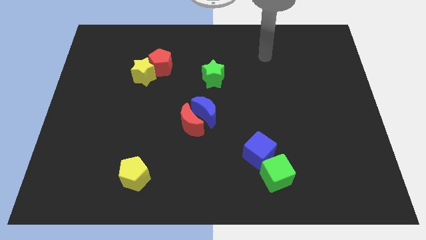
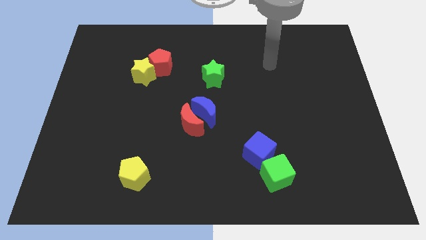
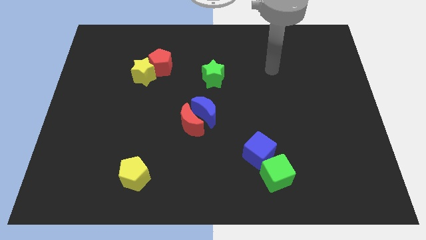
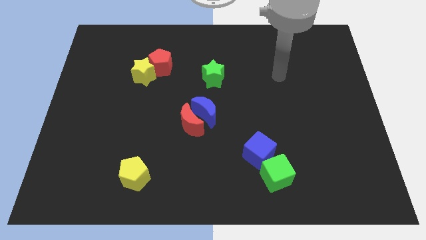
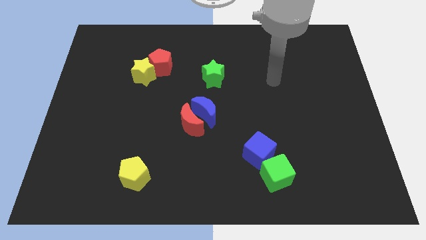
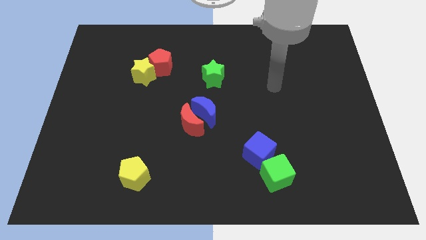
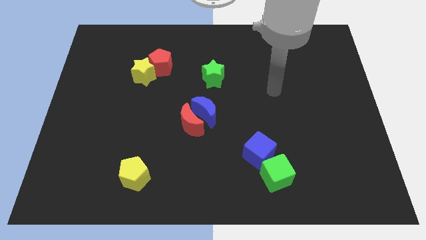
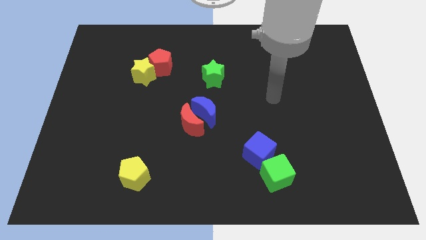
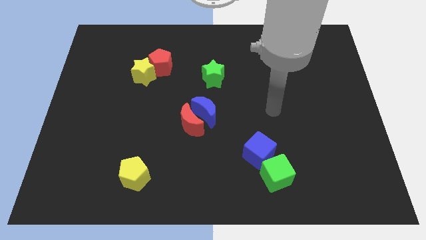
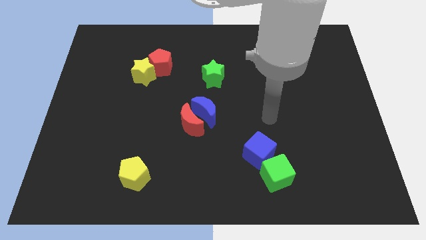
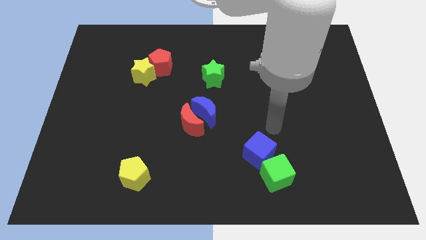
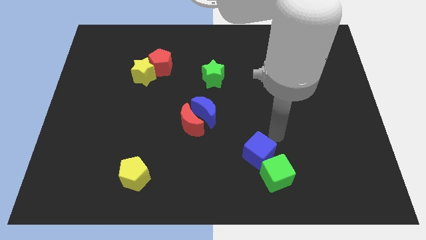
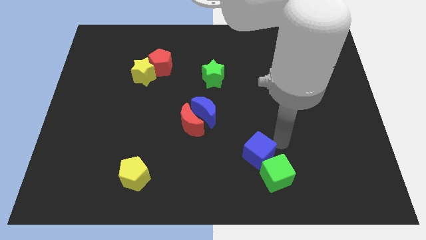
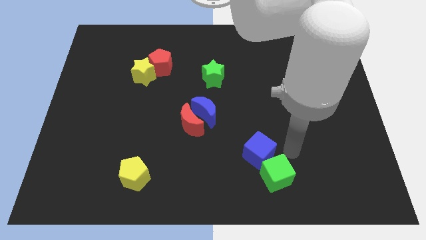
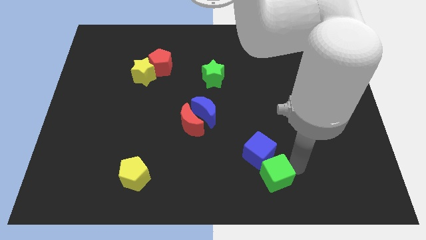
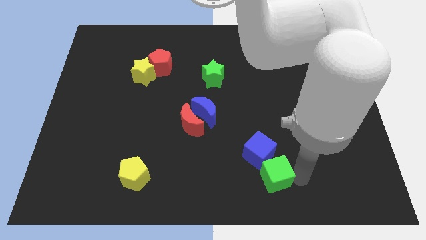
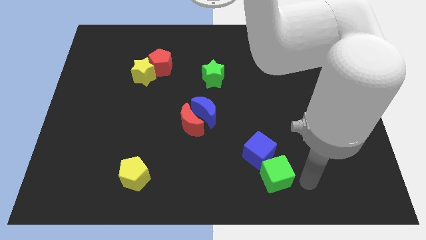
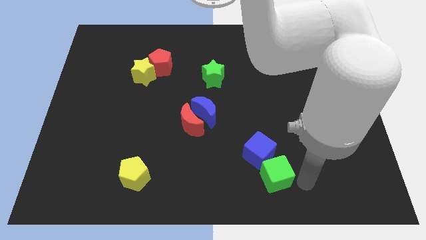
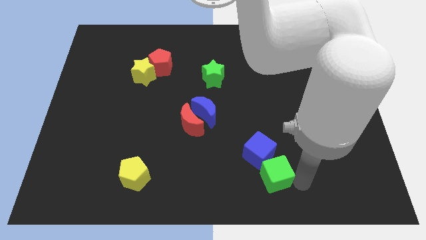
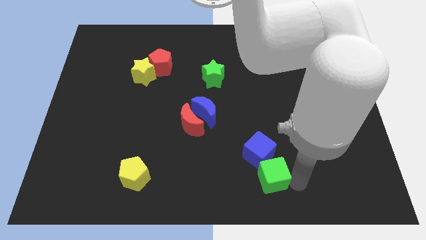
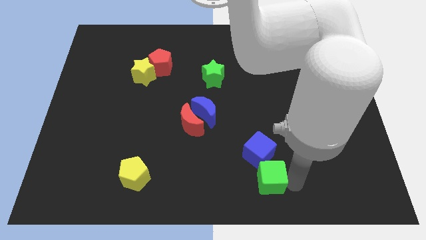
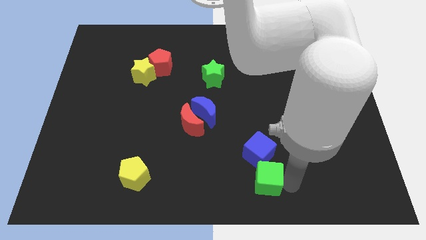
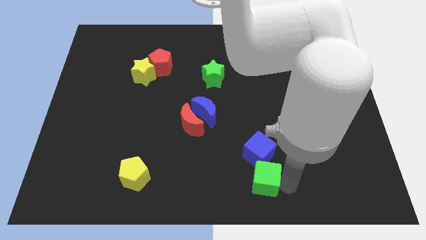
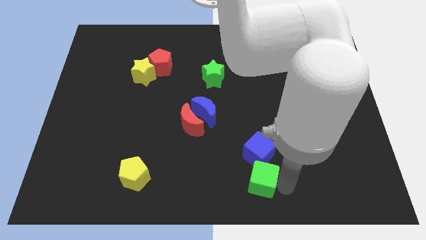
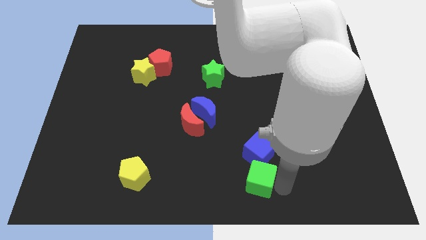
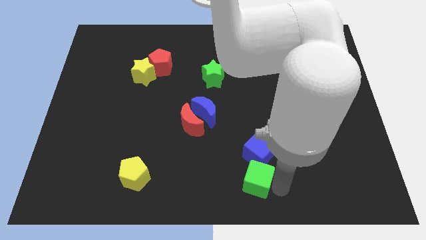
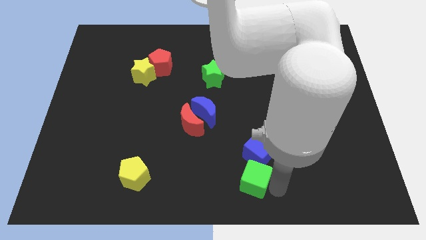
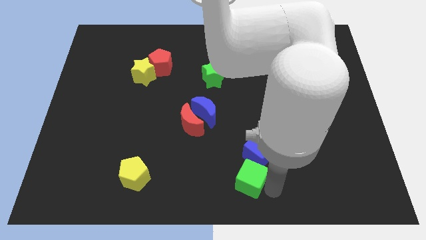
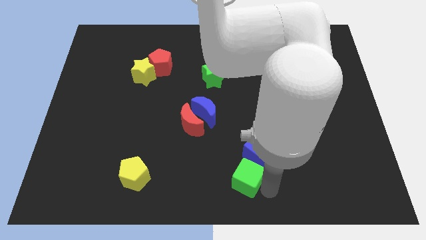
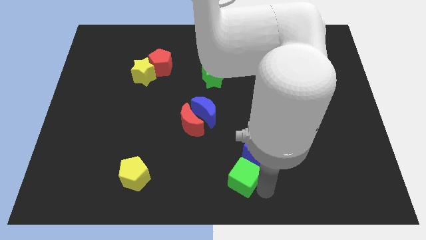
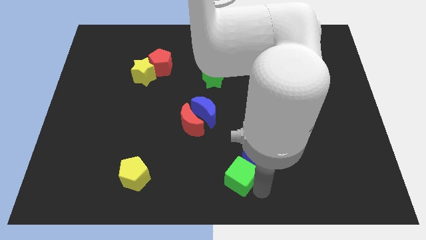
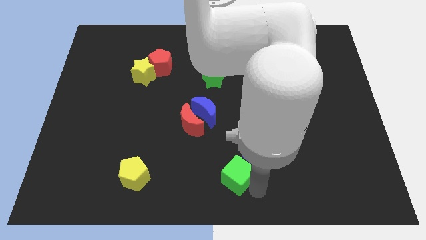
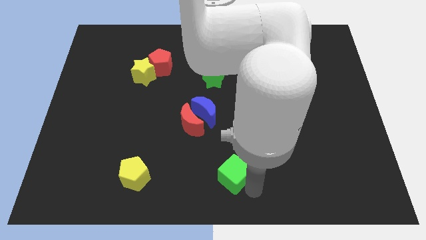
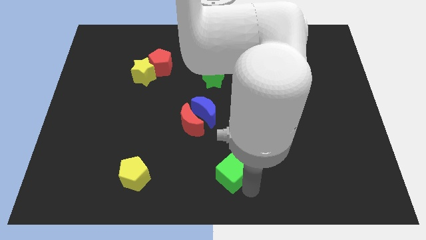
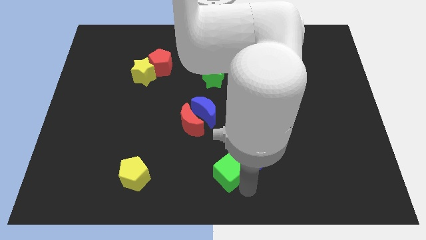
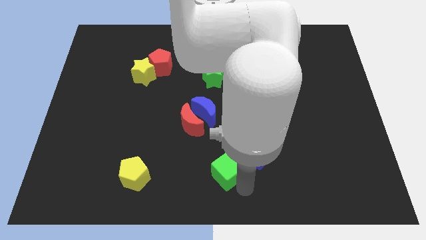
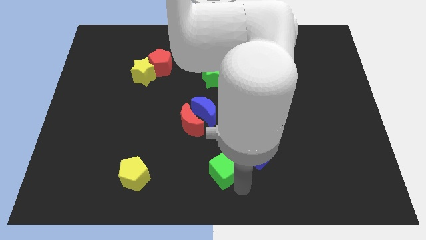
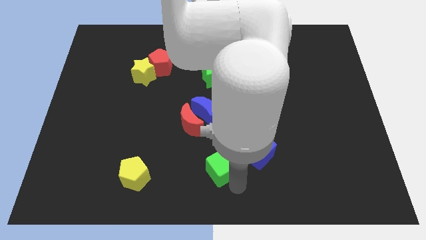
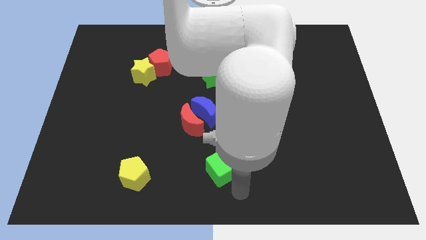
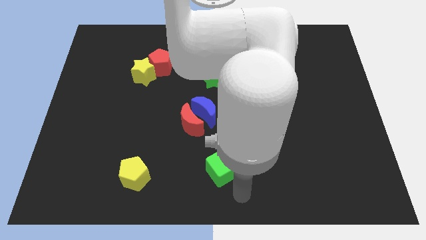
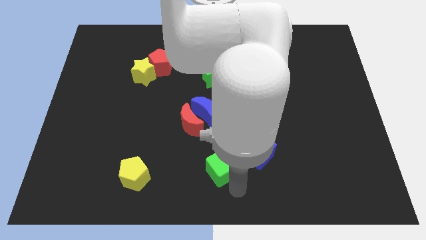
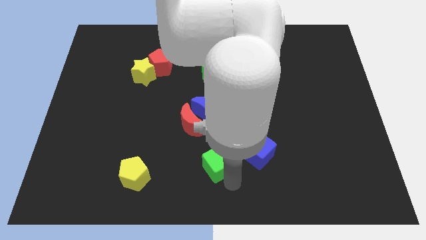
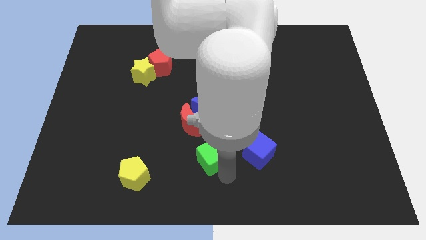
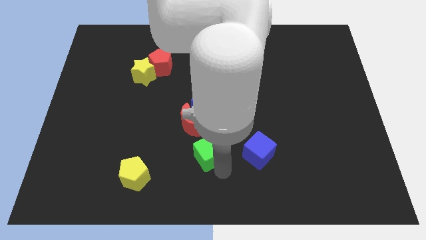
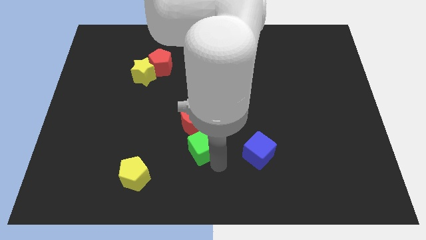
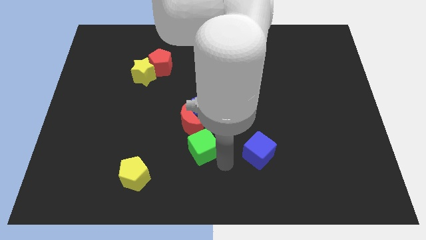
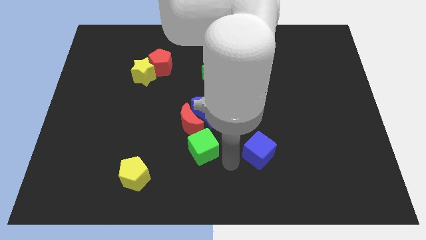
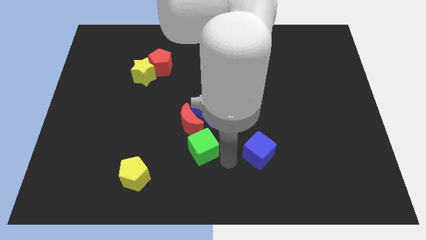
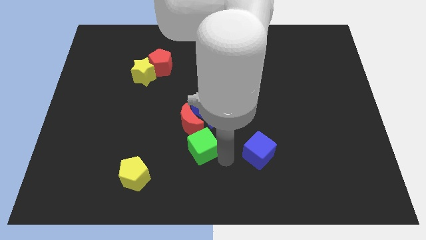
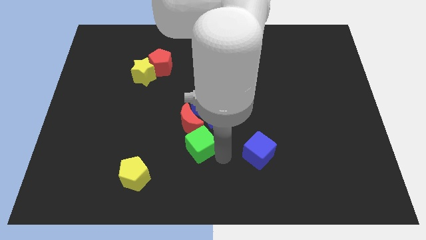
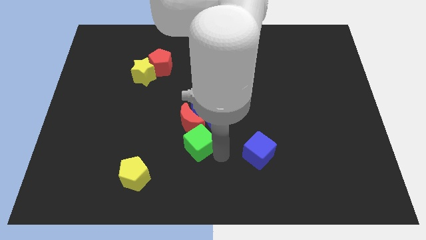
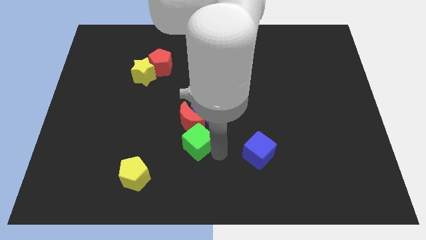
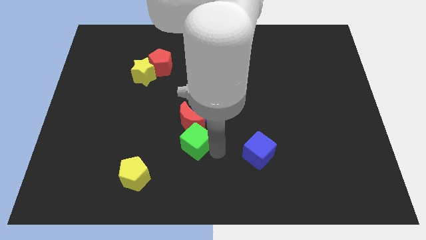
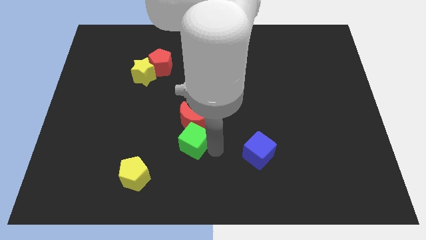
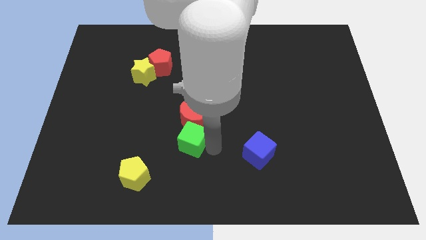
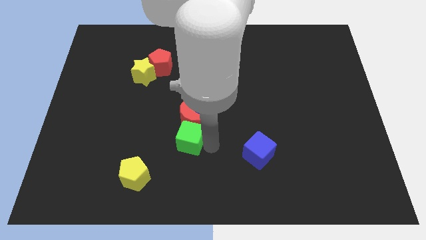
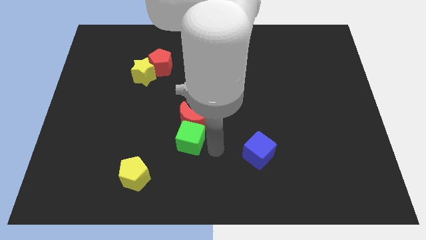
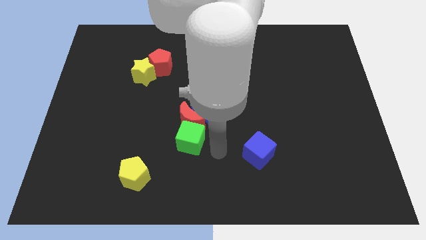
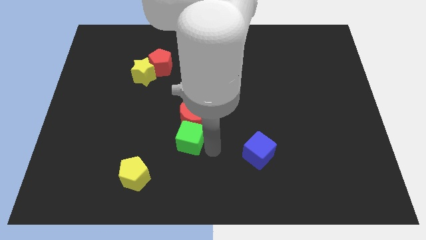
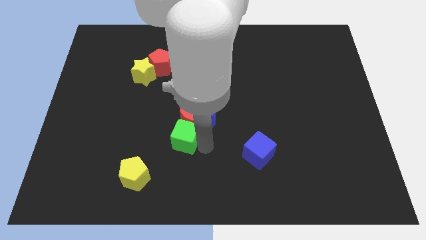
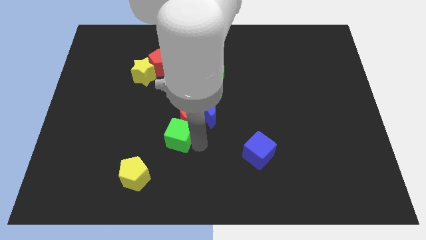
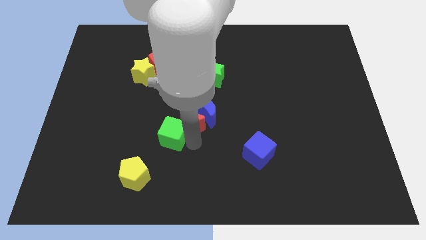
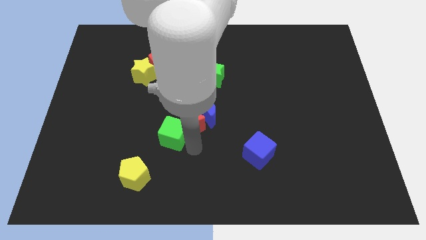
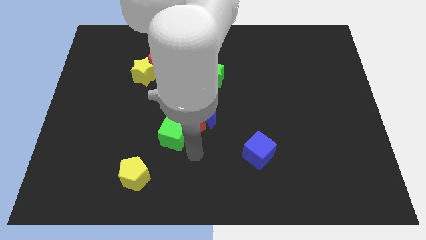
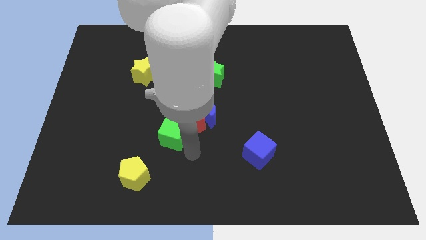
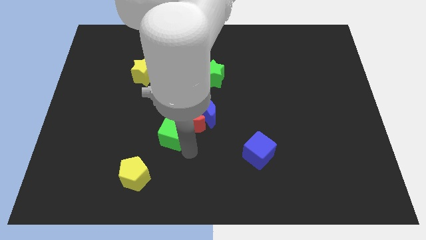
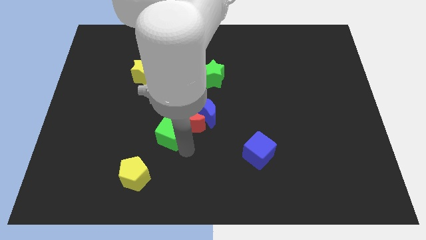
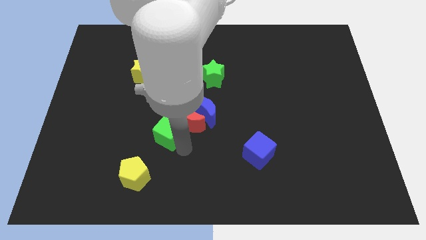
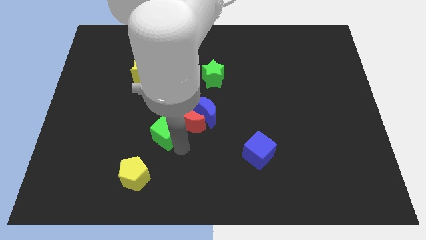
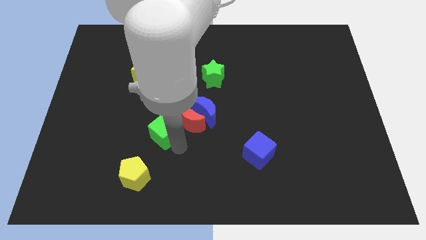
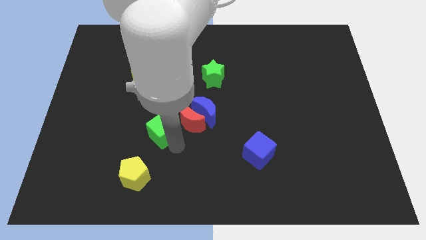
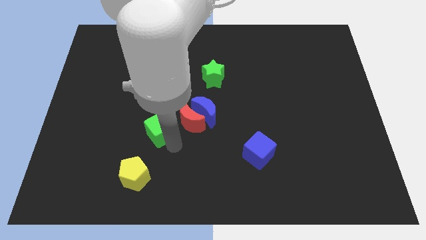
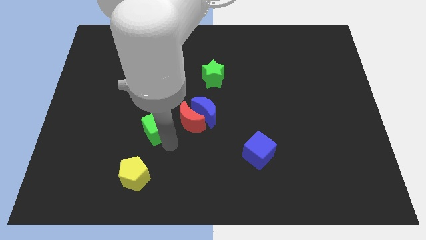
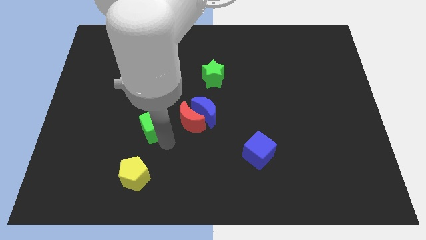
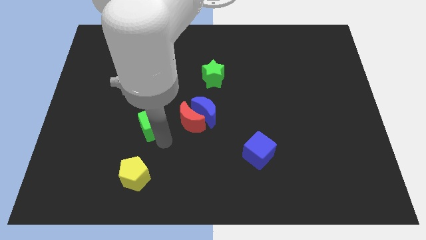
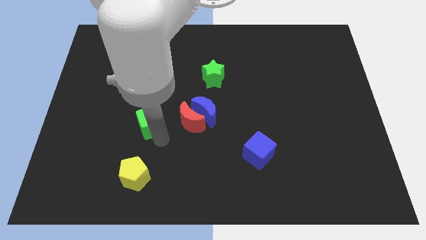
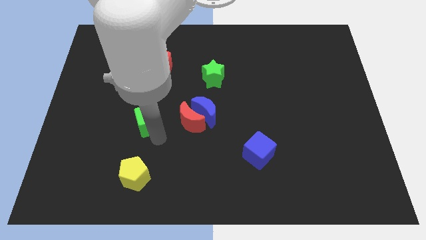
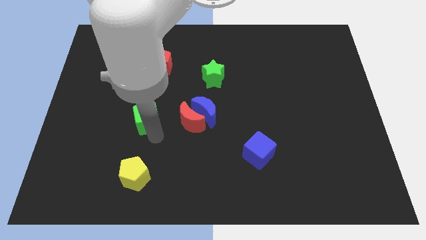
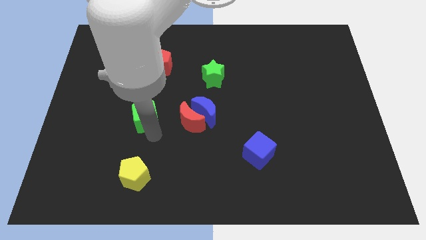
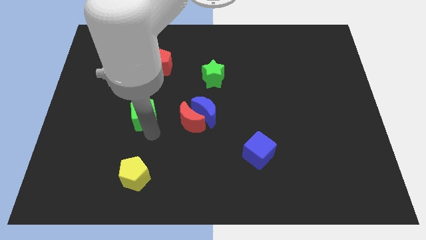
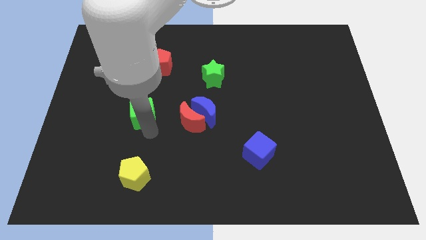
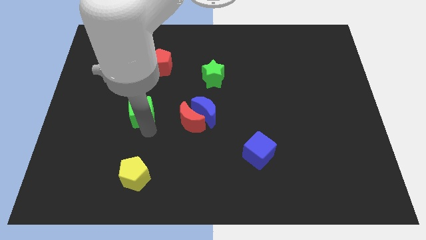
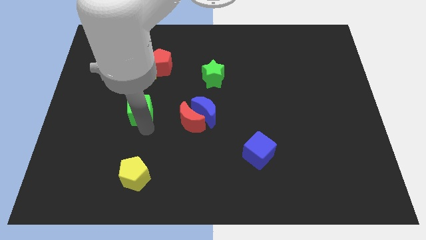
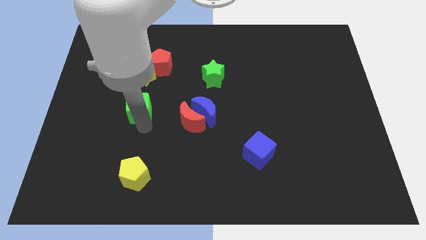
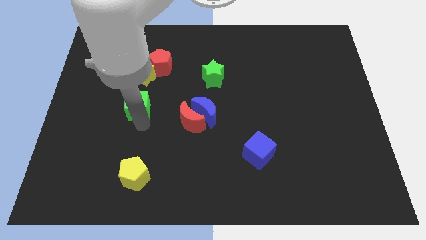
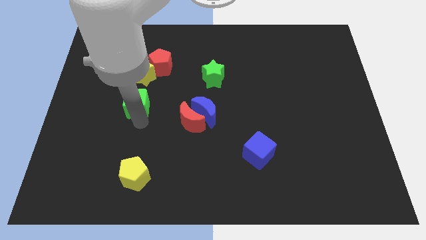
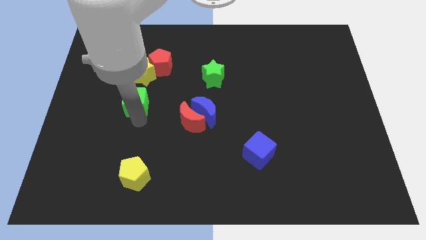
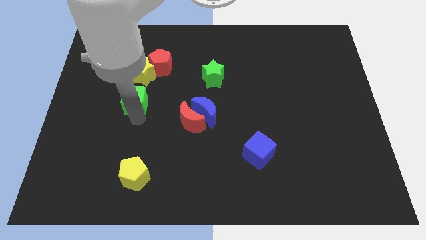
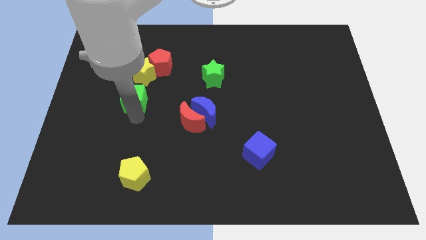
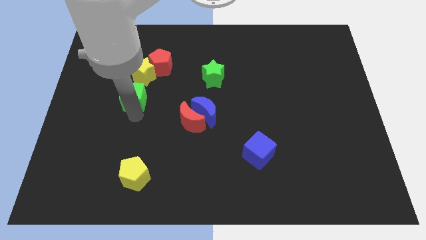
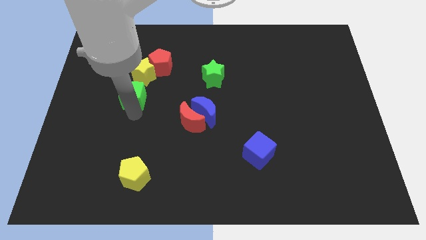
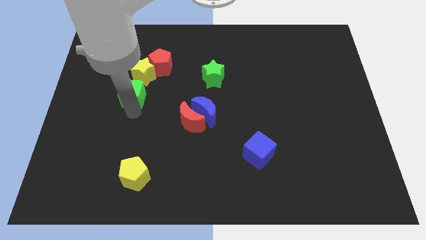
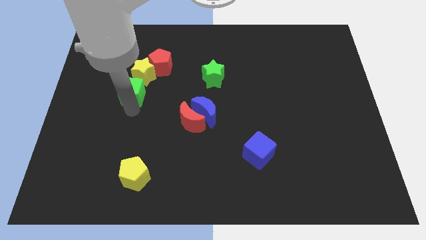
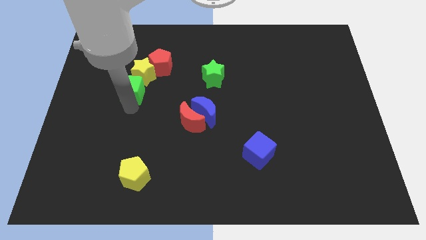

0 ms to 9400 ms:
put the green cube to the yellow star
